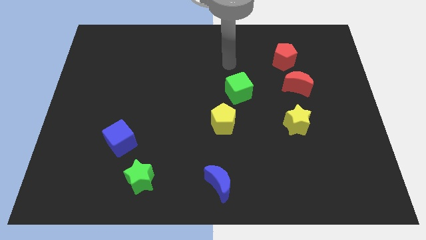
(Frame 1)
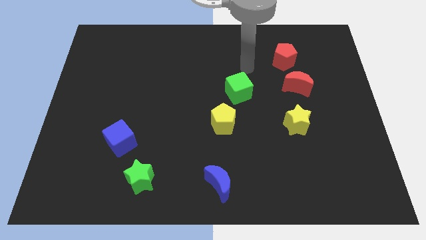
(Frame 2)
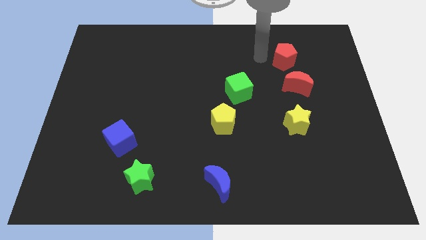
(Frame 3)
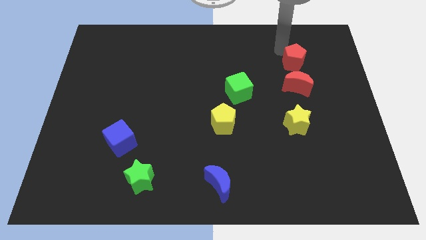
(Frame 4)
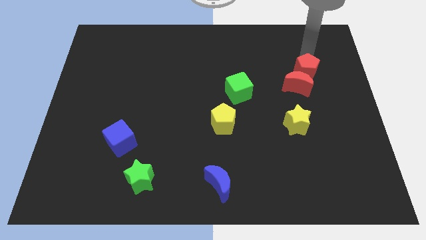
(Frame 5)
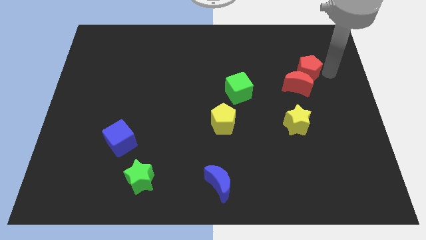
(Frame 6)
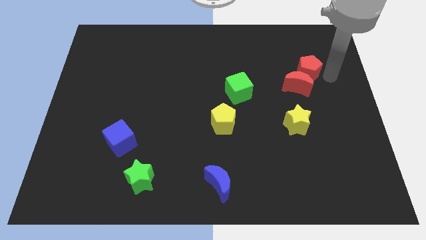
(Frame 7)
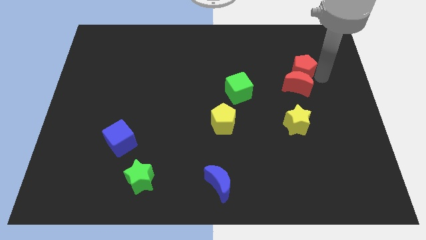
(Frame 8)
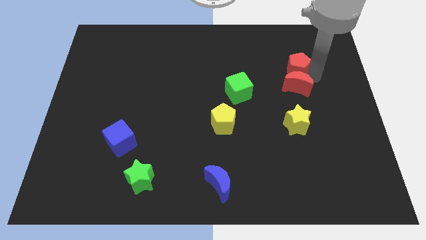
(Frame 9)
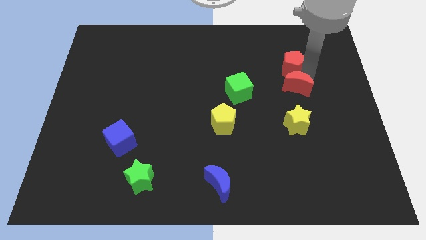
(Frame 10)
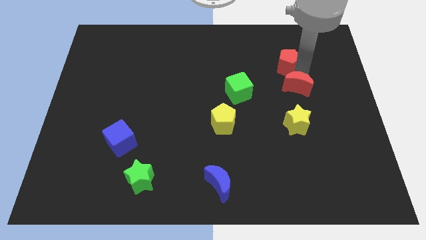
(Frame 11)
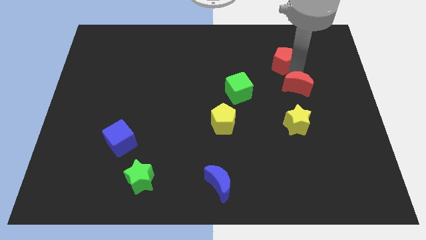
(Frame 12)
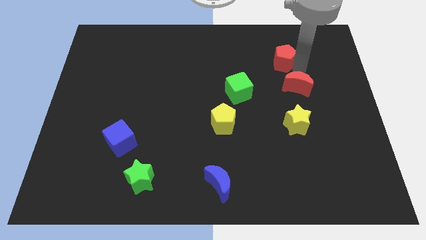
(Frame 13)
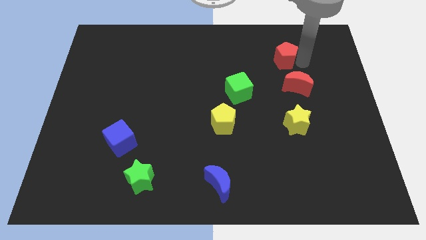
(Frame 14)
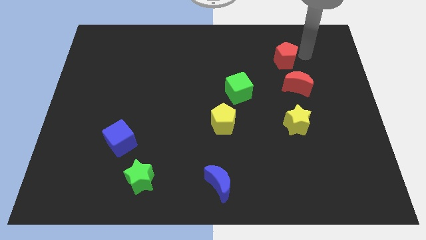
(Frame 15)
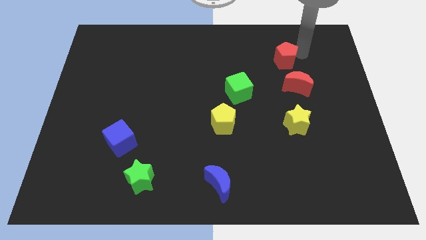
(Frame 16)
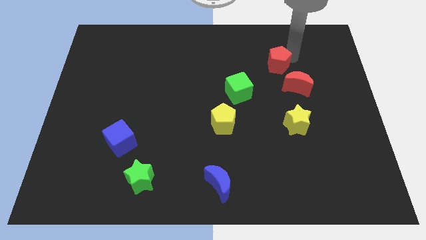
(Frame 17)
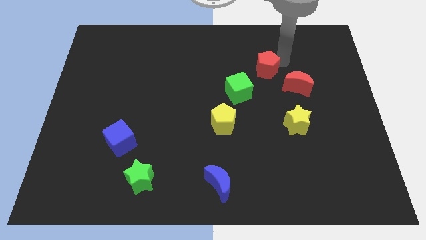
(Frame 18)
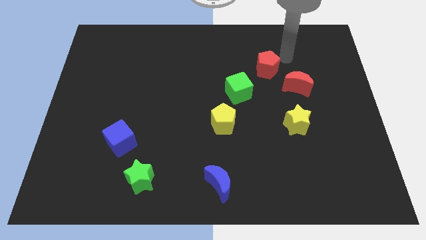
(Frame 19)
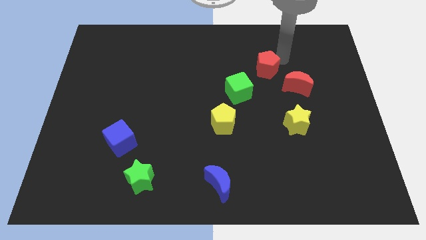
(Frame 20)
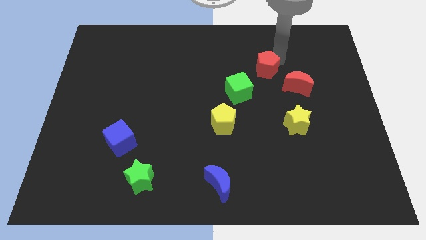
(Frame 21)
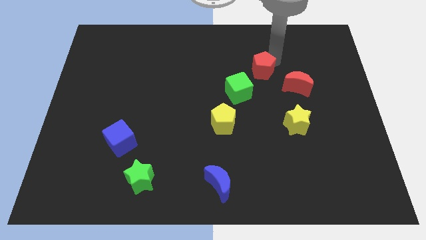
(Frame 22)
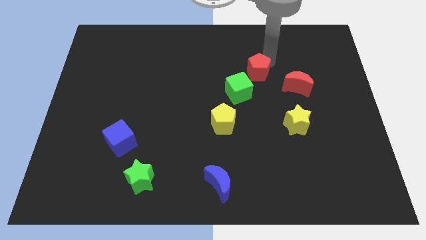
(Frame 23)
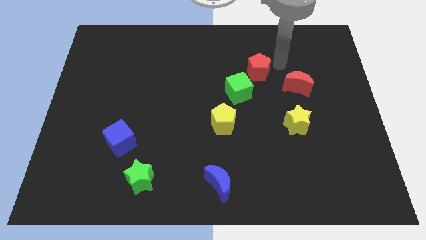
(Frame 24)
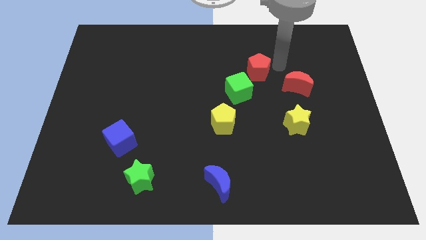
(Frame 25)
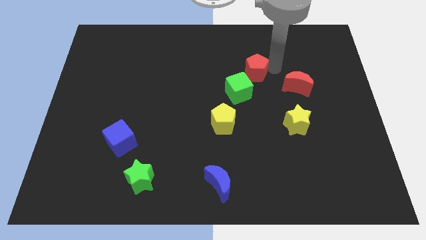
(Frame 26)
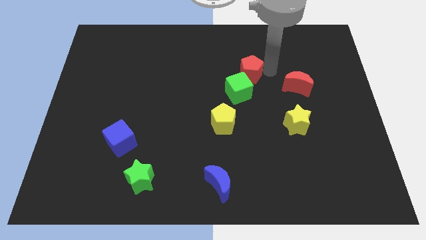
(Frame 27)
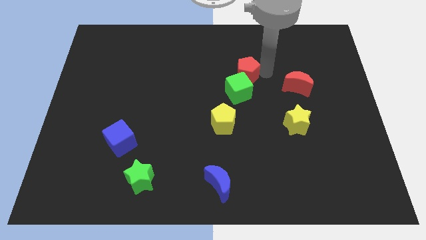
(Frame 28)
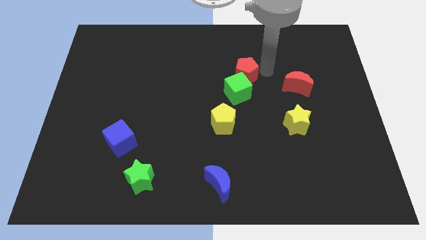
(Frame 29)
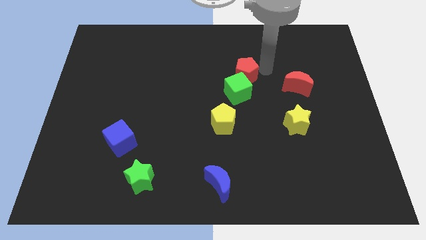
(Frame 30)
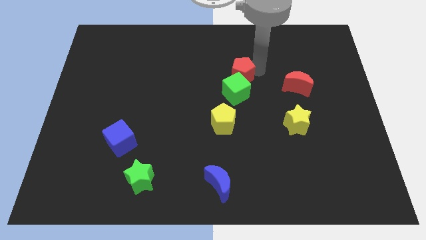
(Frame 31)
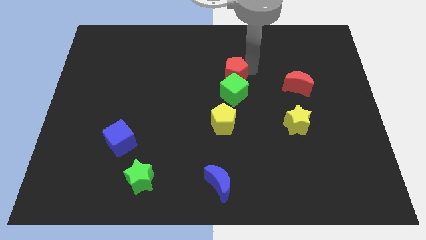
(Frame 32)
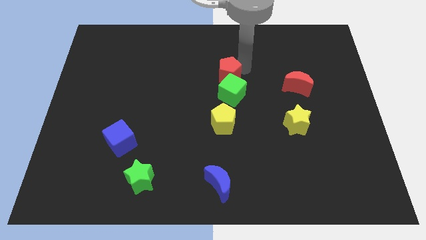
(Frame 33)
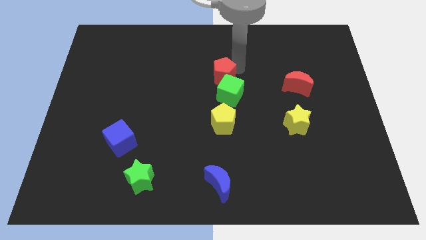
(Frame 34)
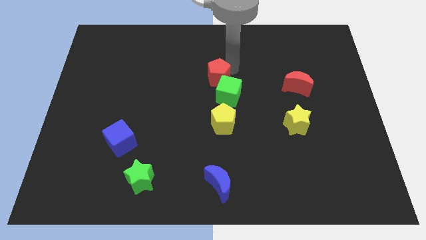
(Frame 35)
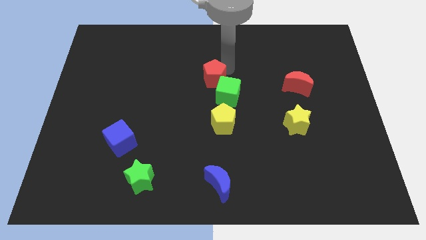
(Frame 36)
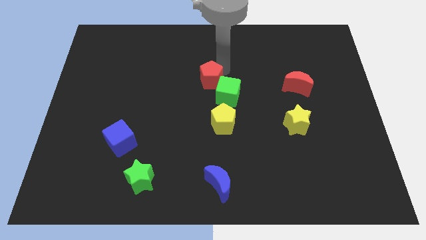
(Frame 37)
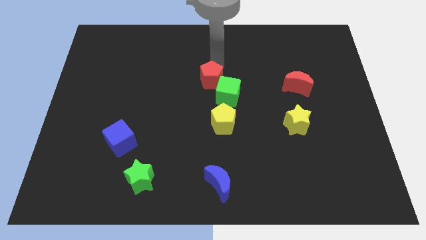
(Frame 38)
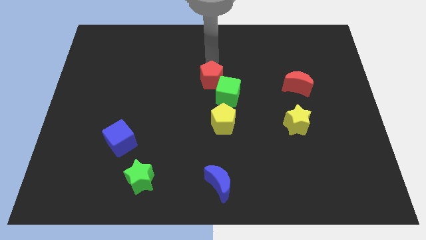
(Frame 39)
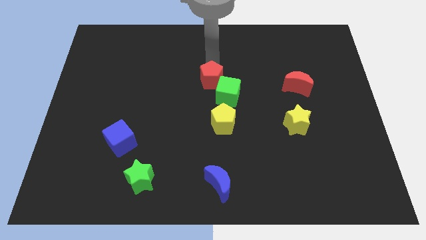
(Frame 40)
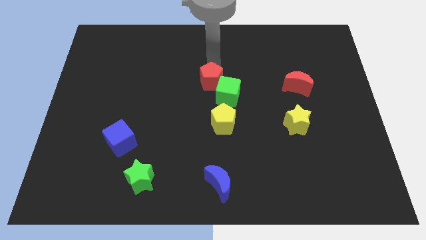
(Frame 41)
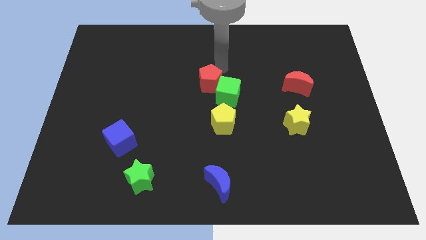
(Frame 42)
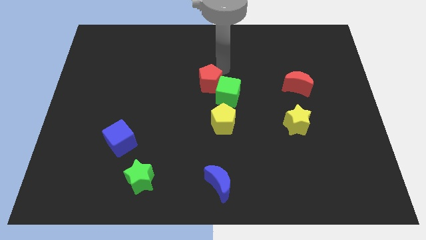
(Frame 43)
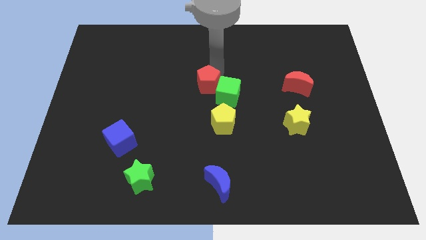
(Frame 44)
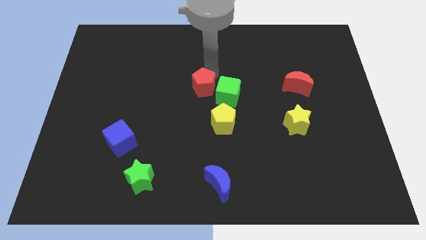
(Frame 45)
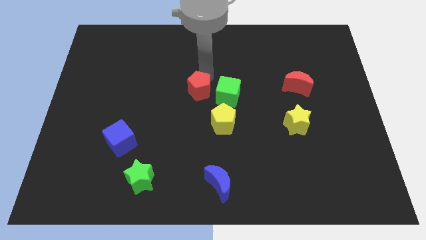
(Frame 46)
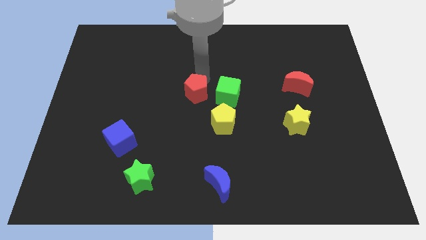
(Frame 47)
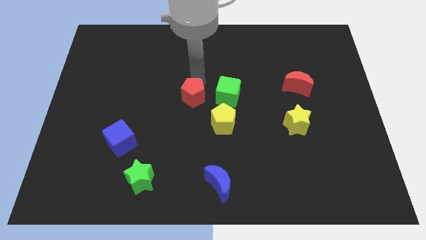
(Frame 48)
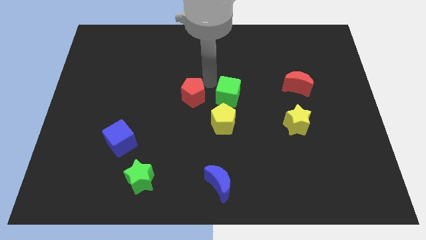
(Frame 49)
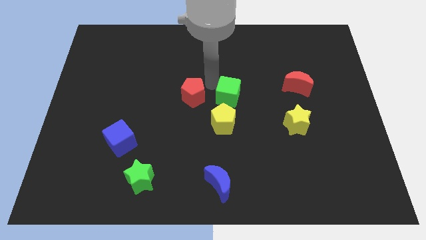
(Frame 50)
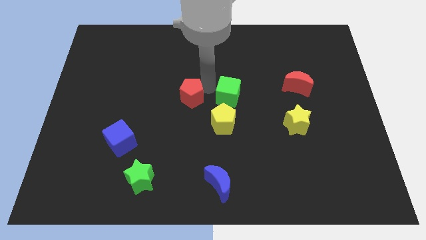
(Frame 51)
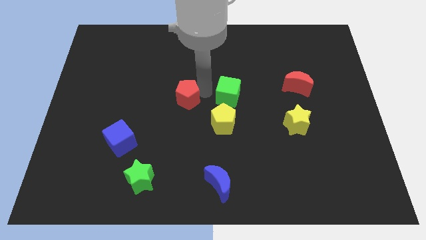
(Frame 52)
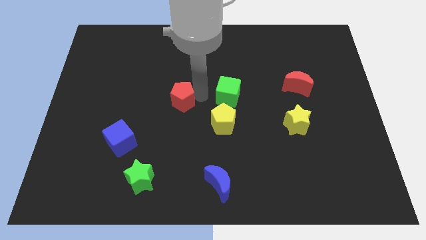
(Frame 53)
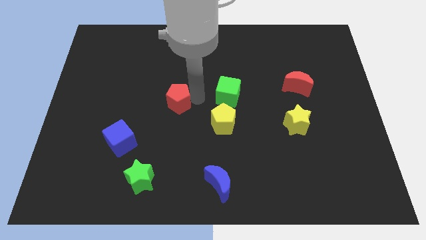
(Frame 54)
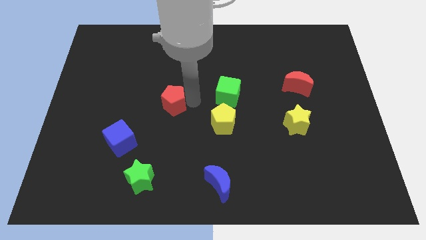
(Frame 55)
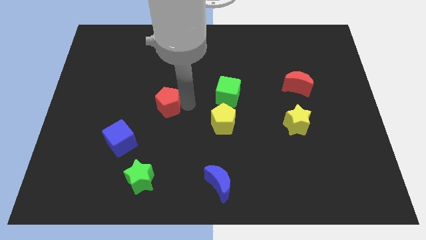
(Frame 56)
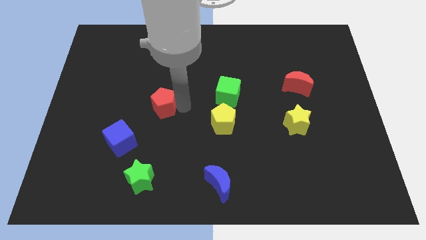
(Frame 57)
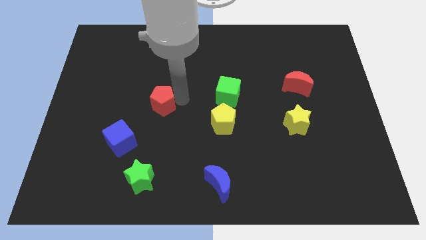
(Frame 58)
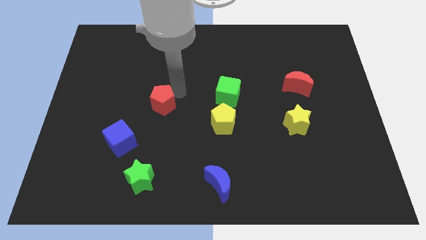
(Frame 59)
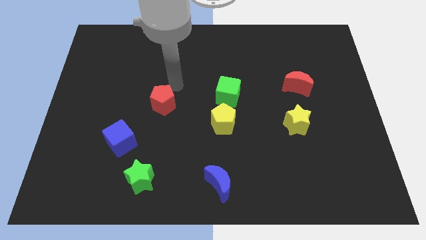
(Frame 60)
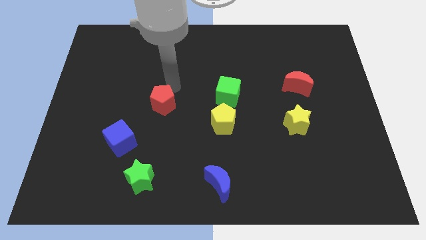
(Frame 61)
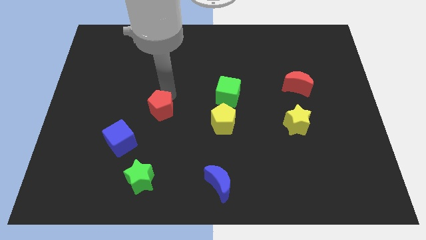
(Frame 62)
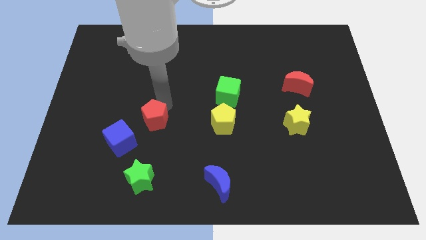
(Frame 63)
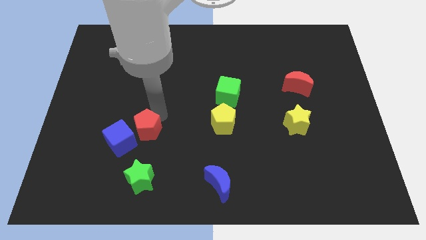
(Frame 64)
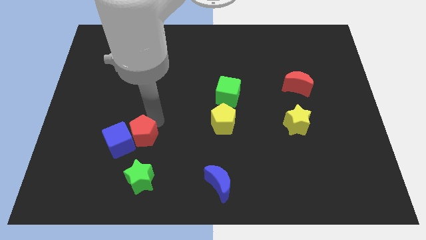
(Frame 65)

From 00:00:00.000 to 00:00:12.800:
move the red pentagon next to the blue cube

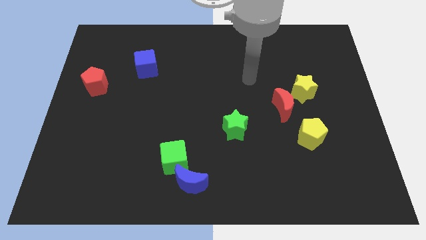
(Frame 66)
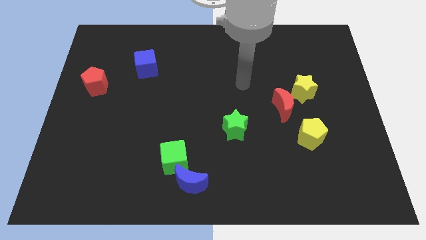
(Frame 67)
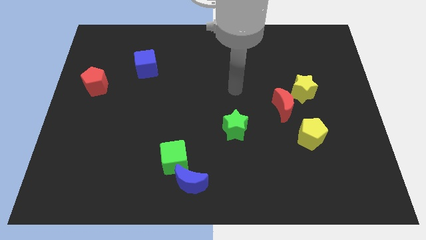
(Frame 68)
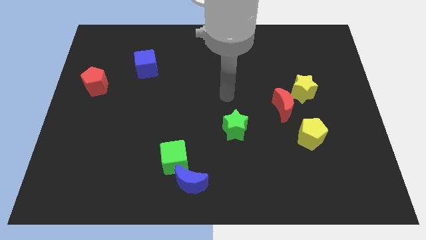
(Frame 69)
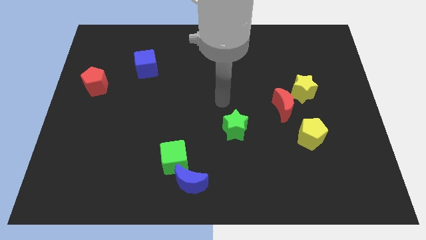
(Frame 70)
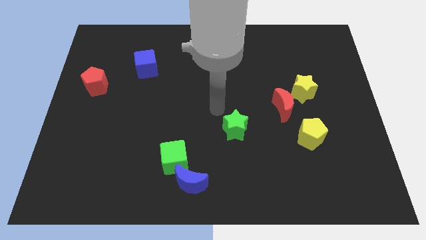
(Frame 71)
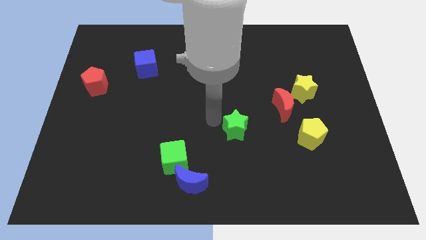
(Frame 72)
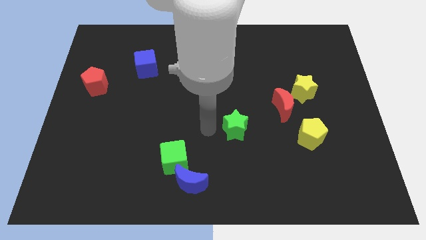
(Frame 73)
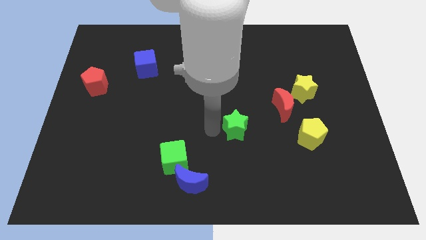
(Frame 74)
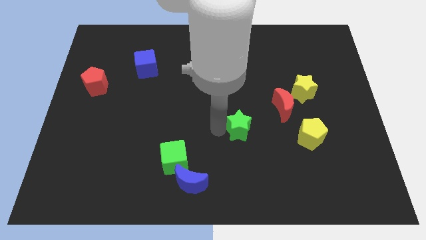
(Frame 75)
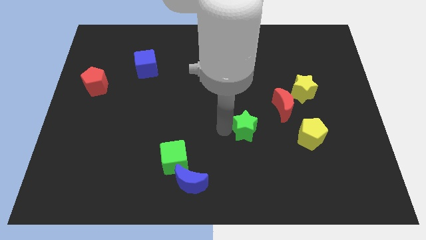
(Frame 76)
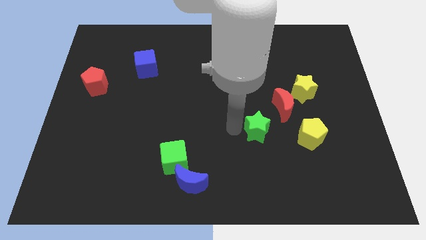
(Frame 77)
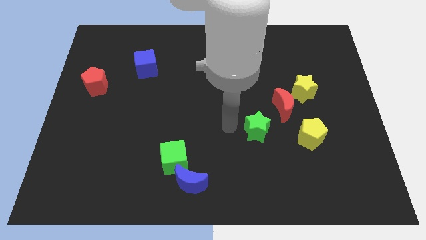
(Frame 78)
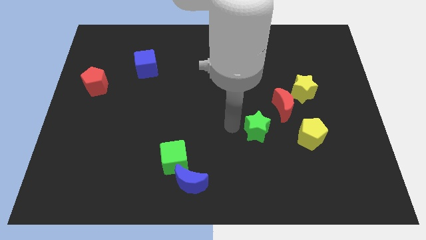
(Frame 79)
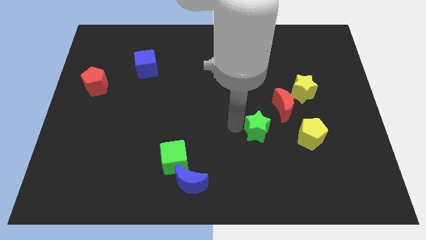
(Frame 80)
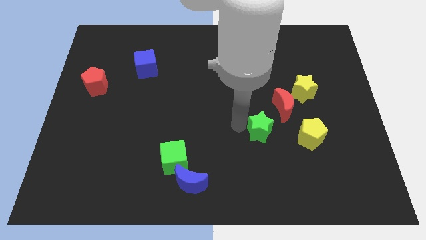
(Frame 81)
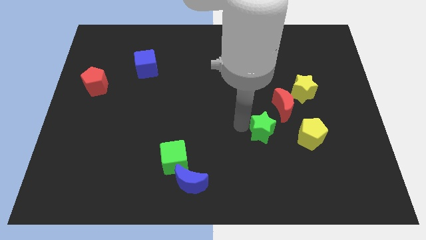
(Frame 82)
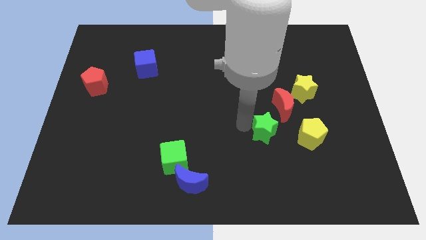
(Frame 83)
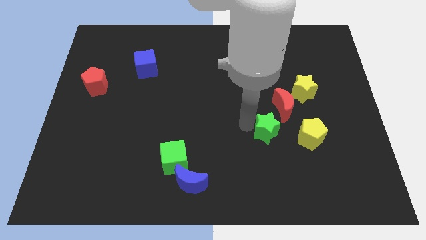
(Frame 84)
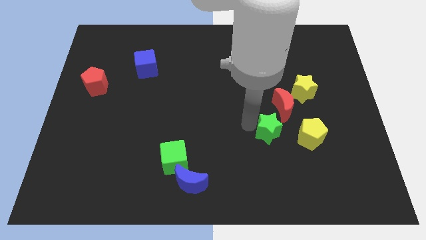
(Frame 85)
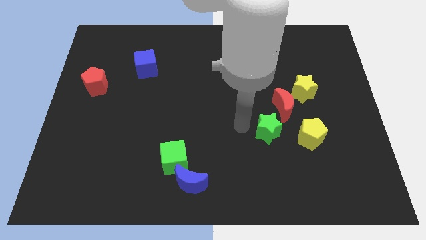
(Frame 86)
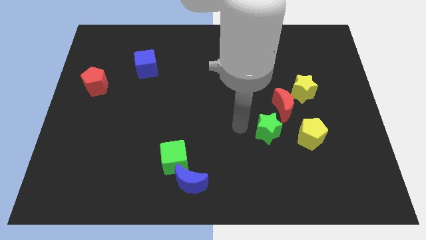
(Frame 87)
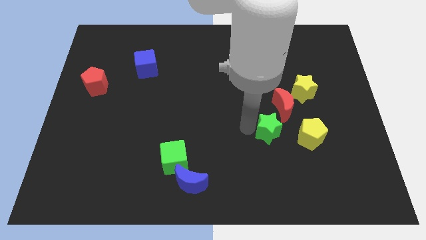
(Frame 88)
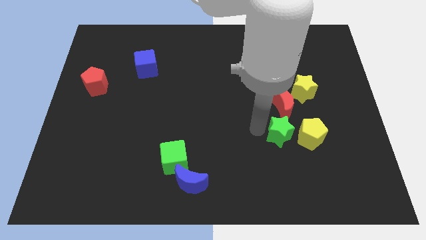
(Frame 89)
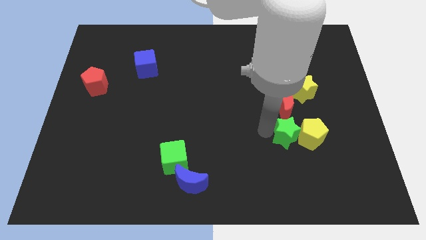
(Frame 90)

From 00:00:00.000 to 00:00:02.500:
push the green star close to the yellow pentagon
